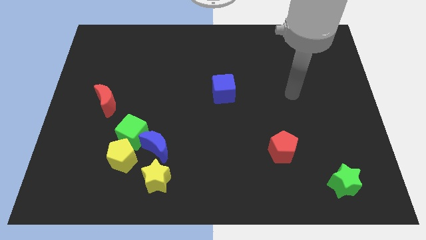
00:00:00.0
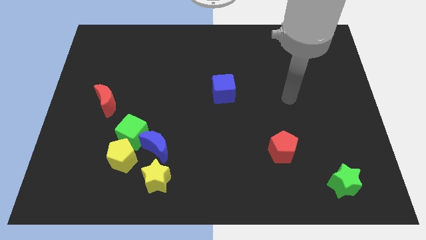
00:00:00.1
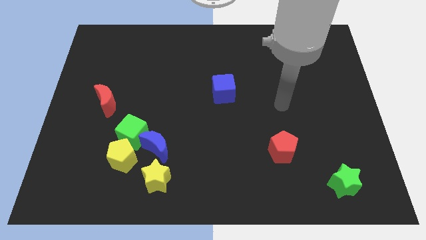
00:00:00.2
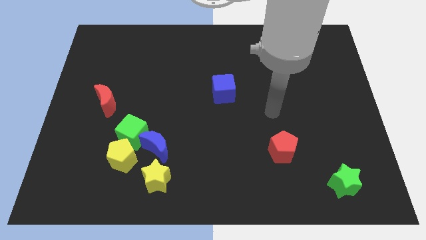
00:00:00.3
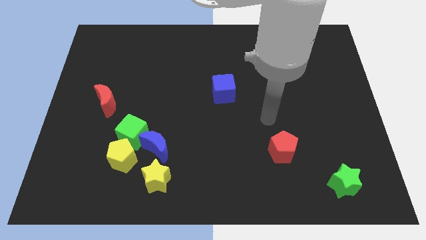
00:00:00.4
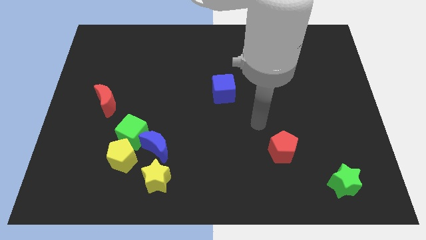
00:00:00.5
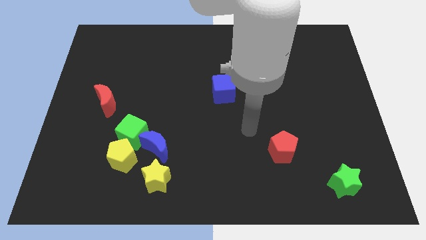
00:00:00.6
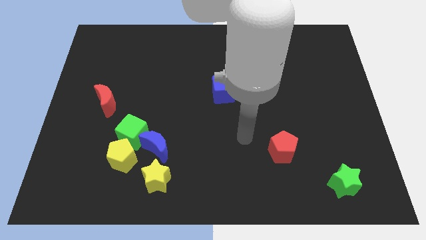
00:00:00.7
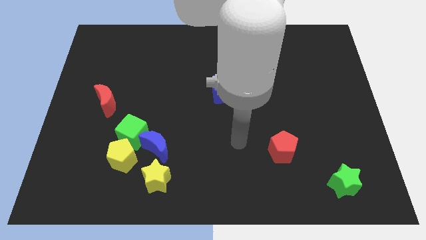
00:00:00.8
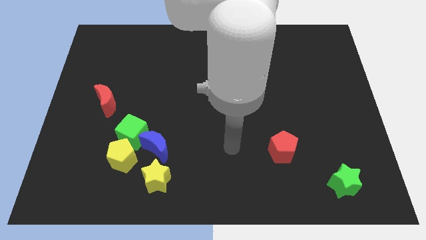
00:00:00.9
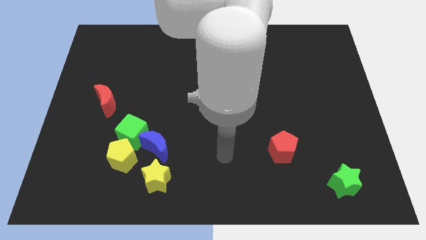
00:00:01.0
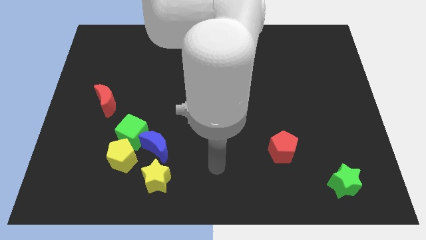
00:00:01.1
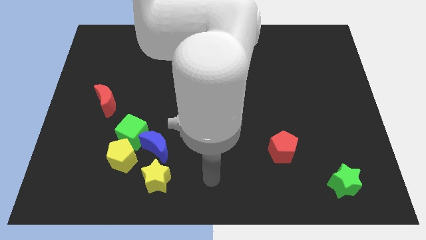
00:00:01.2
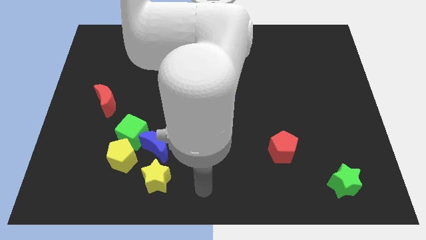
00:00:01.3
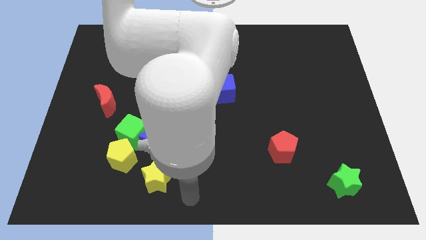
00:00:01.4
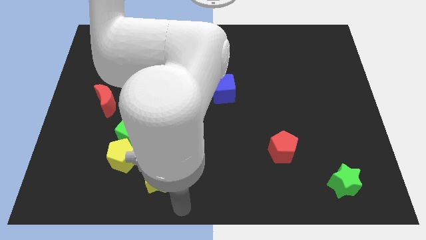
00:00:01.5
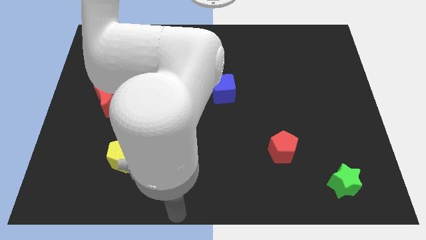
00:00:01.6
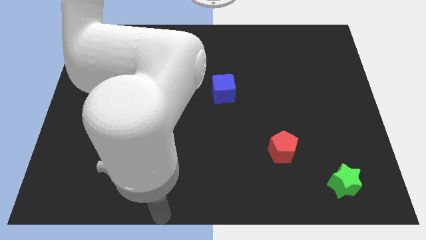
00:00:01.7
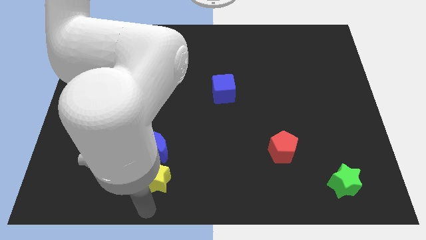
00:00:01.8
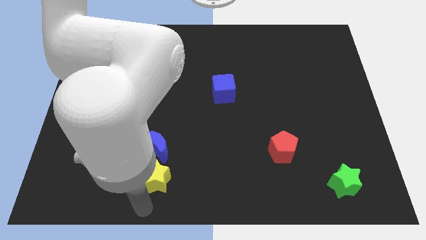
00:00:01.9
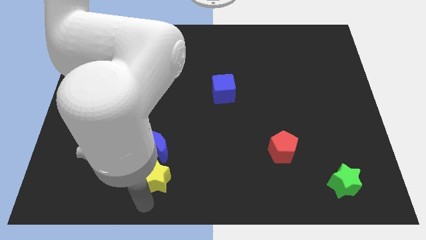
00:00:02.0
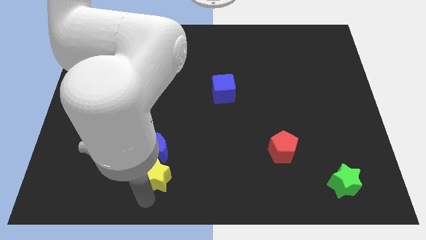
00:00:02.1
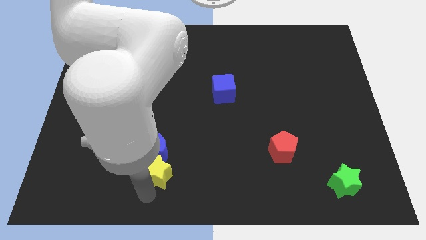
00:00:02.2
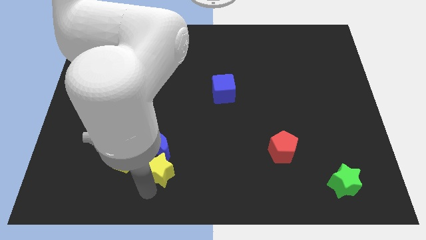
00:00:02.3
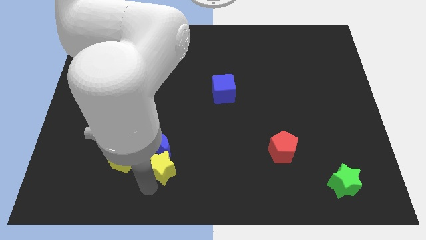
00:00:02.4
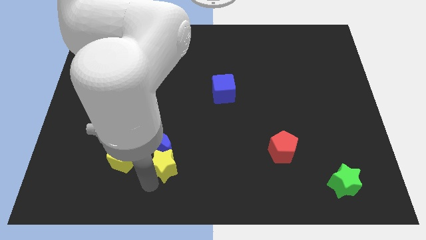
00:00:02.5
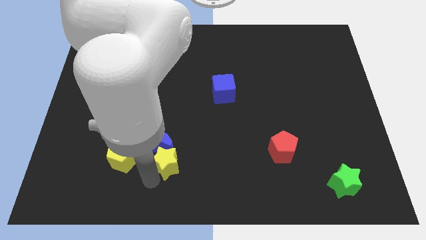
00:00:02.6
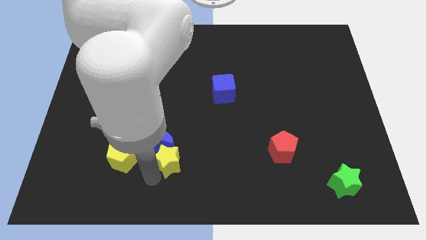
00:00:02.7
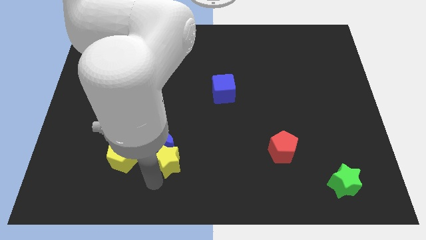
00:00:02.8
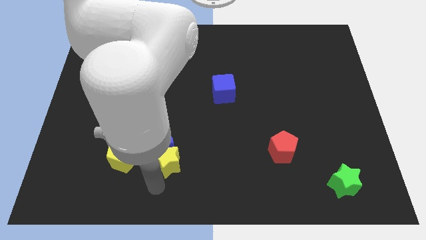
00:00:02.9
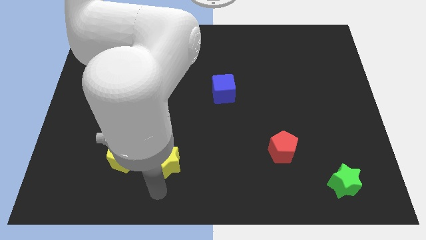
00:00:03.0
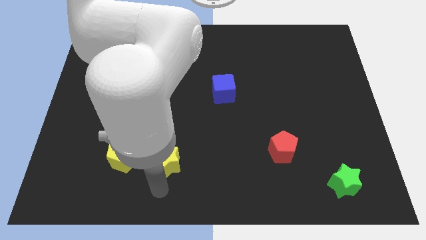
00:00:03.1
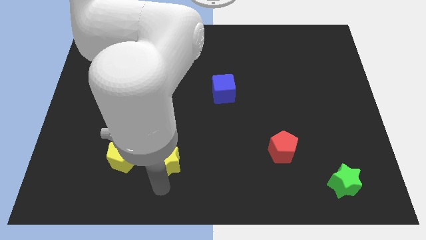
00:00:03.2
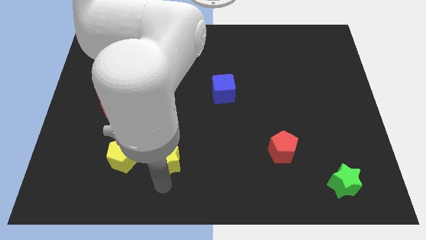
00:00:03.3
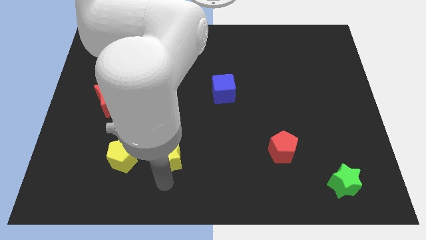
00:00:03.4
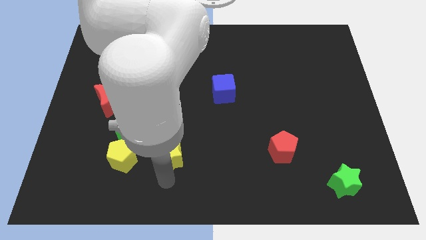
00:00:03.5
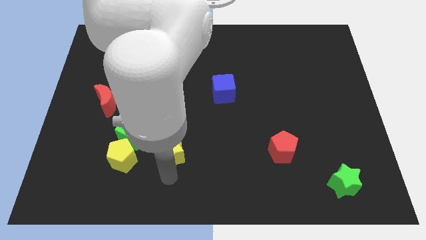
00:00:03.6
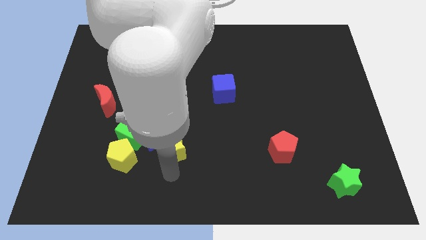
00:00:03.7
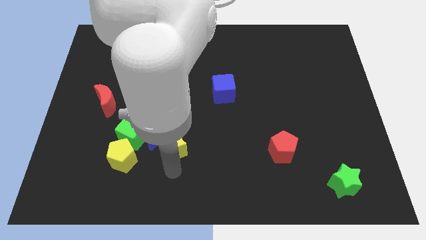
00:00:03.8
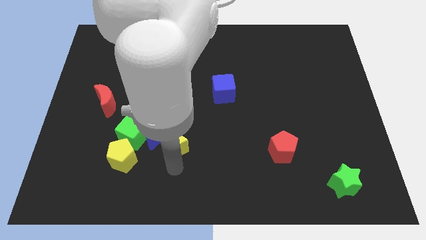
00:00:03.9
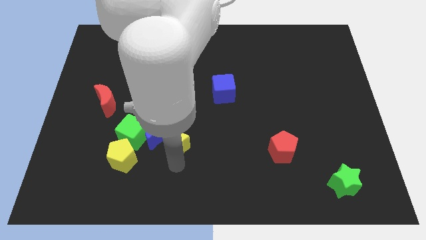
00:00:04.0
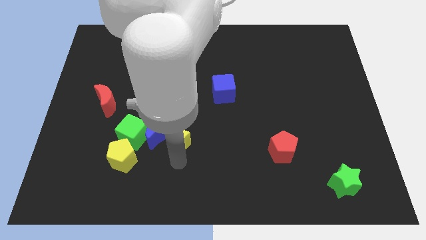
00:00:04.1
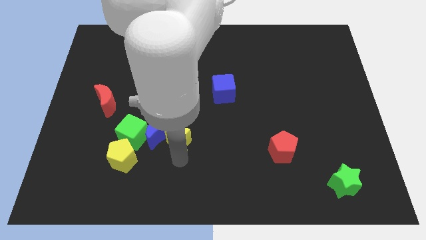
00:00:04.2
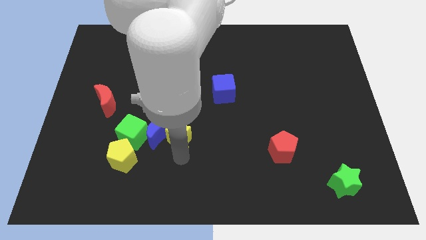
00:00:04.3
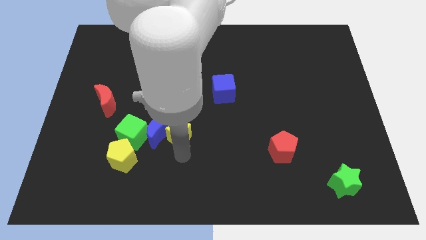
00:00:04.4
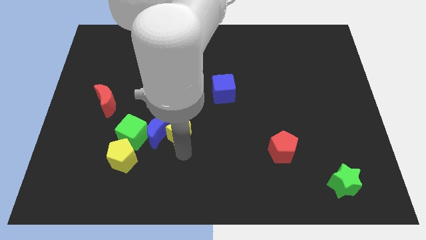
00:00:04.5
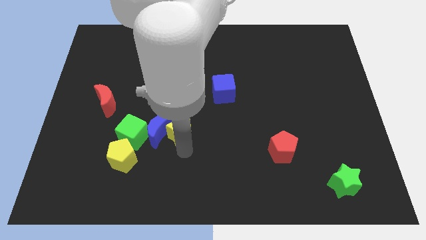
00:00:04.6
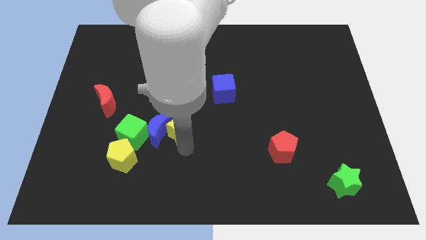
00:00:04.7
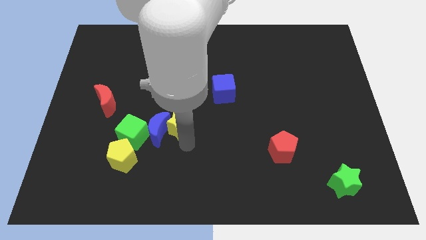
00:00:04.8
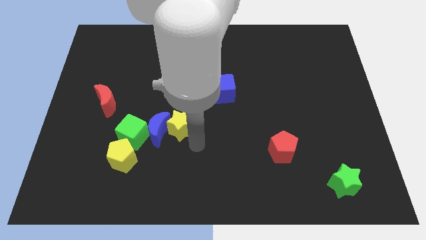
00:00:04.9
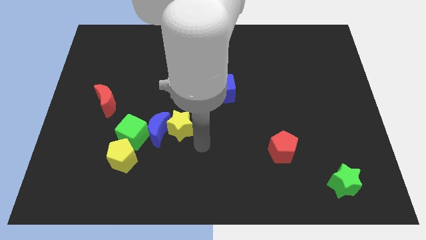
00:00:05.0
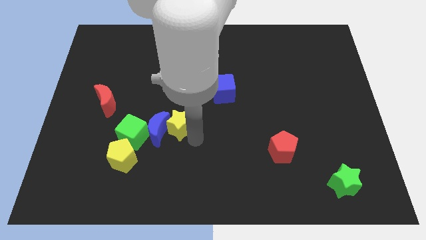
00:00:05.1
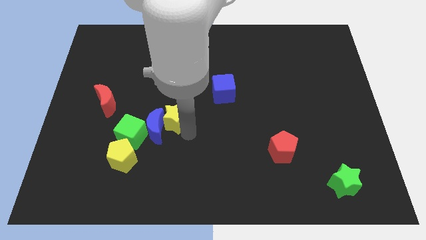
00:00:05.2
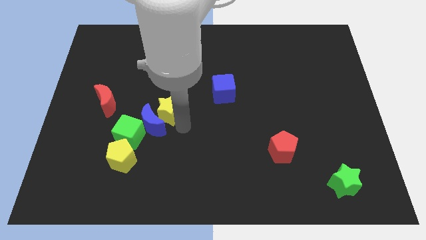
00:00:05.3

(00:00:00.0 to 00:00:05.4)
move the yellow star just right of the red moon

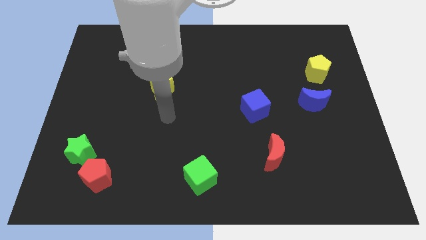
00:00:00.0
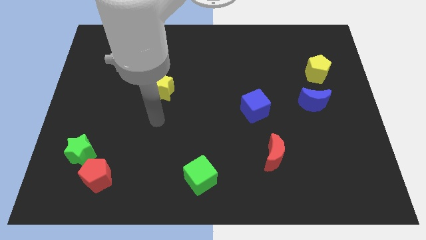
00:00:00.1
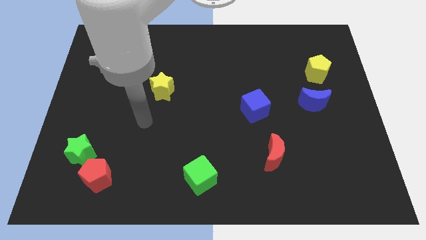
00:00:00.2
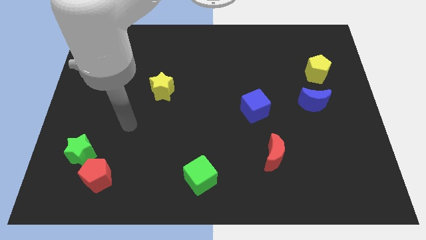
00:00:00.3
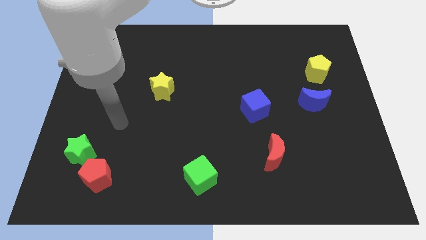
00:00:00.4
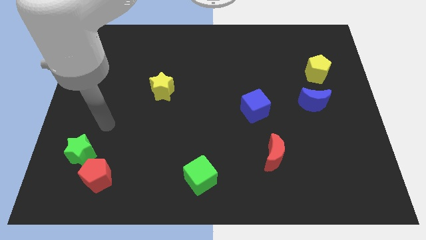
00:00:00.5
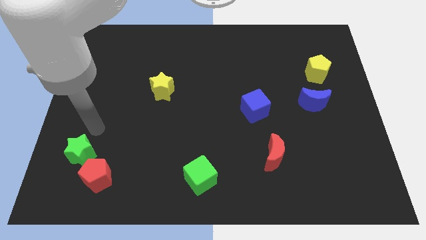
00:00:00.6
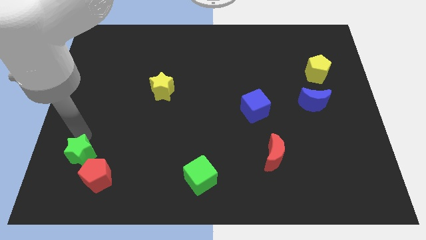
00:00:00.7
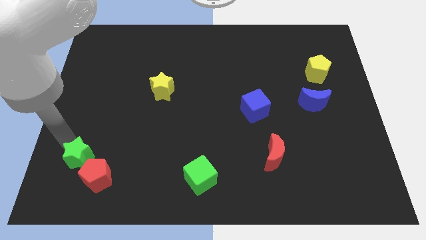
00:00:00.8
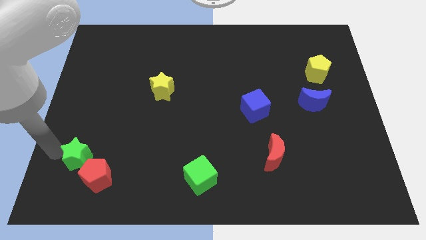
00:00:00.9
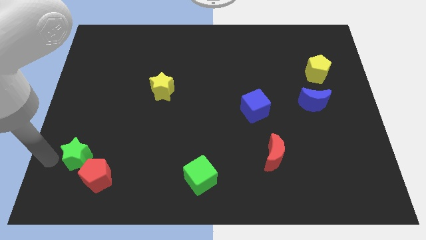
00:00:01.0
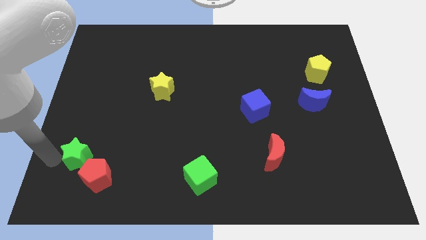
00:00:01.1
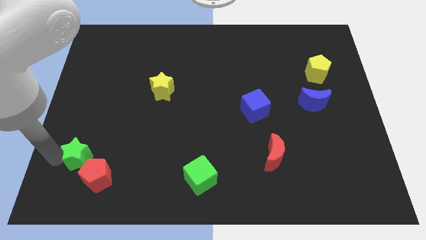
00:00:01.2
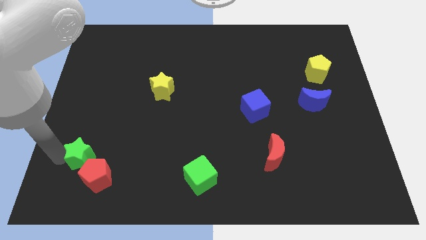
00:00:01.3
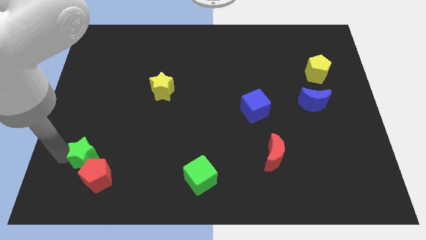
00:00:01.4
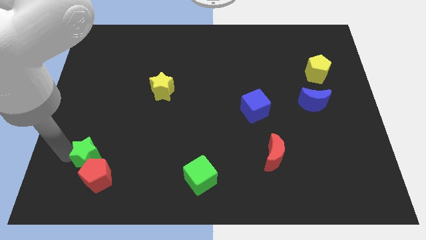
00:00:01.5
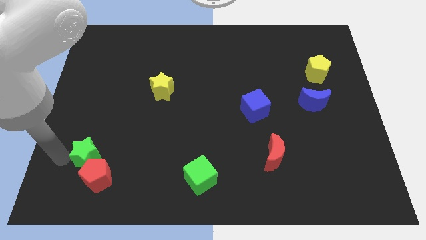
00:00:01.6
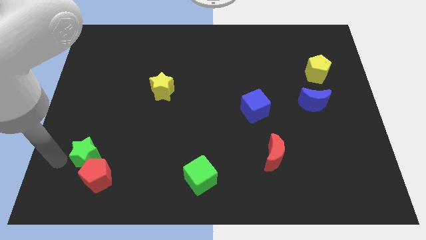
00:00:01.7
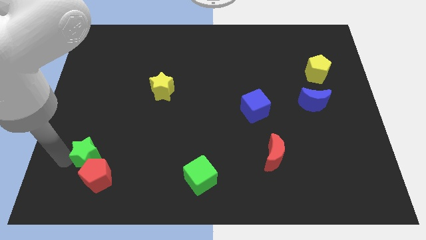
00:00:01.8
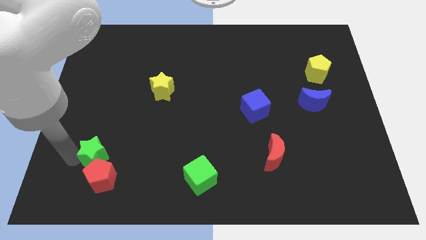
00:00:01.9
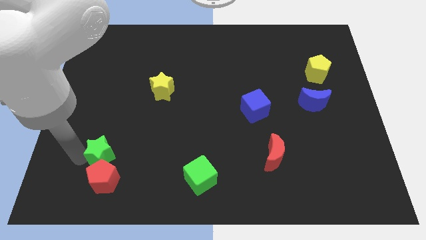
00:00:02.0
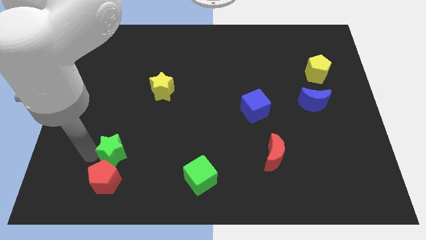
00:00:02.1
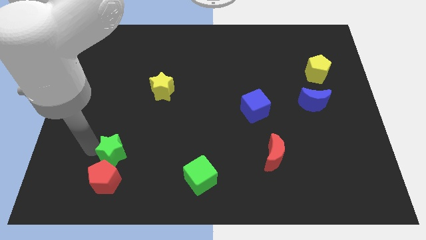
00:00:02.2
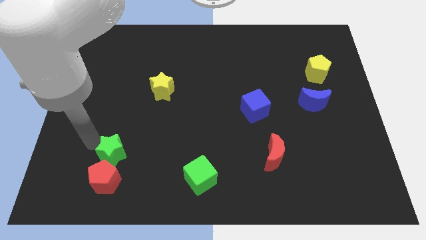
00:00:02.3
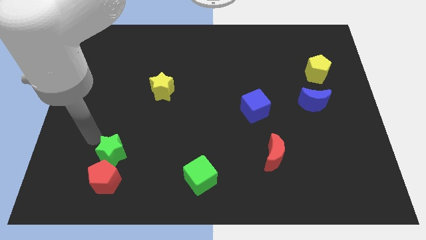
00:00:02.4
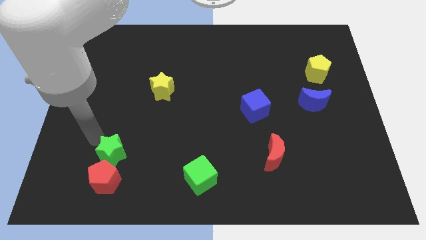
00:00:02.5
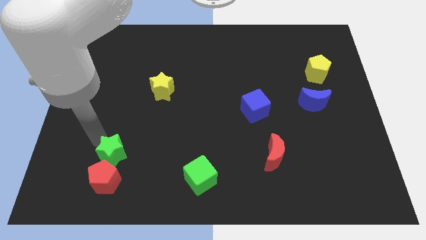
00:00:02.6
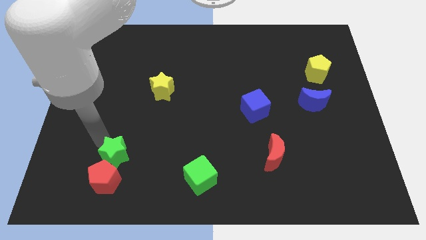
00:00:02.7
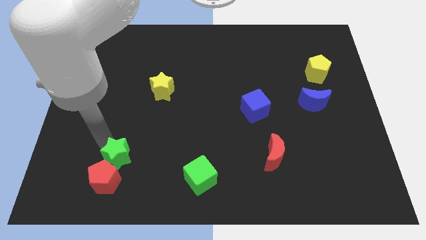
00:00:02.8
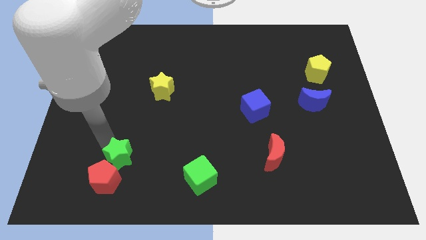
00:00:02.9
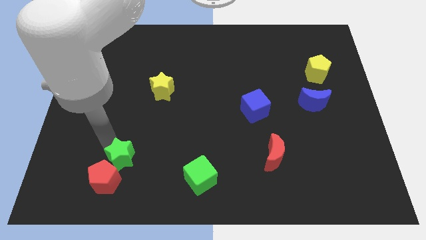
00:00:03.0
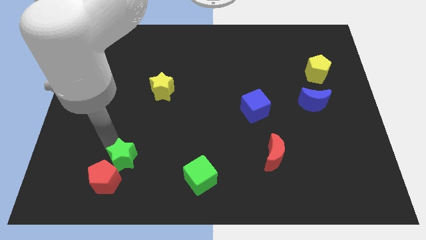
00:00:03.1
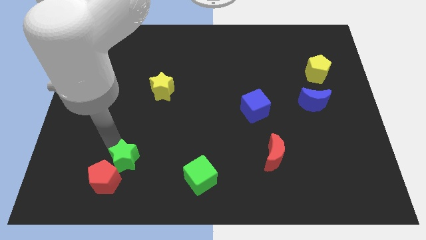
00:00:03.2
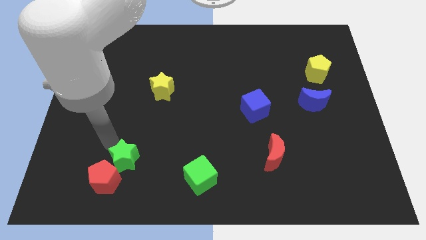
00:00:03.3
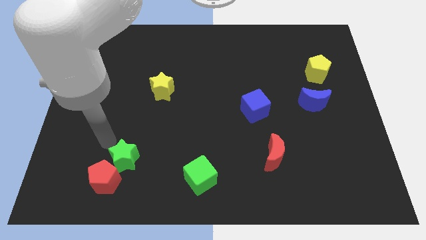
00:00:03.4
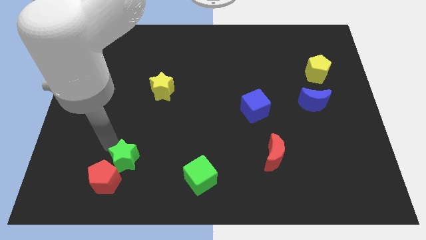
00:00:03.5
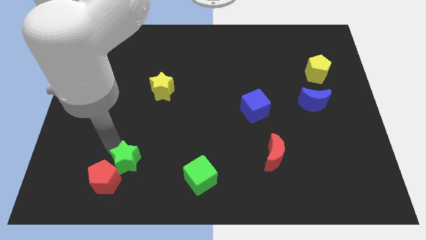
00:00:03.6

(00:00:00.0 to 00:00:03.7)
push the green star to the right of the red pentagon
